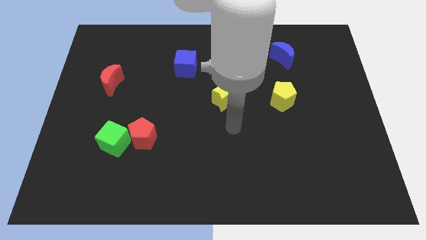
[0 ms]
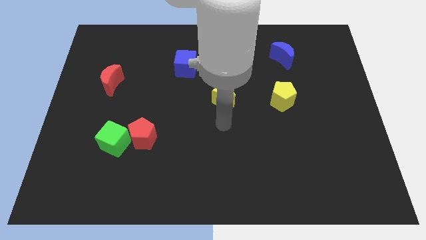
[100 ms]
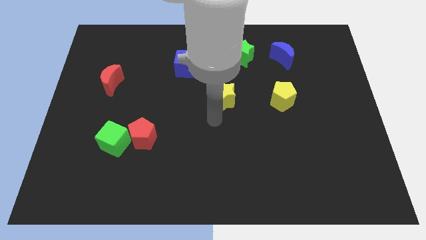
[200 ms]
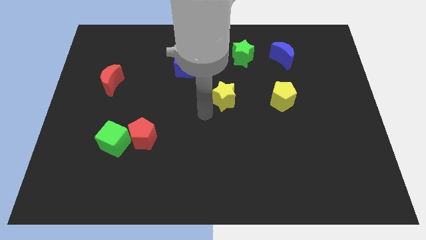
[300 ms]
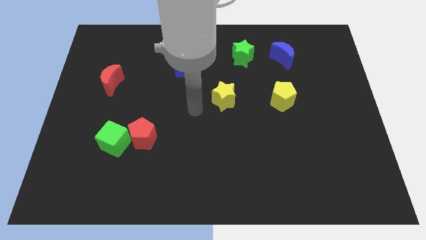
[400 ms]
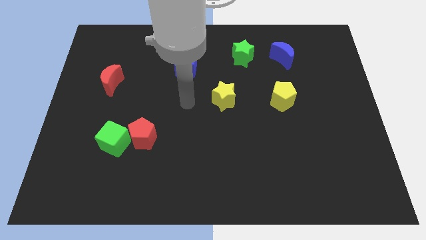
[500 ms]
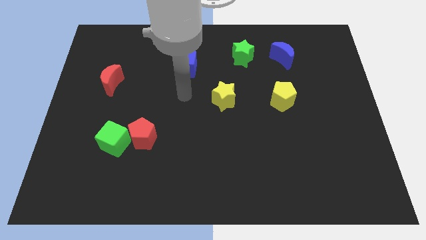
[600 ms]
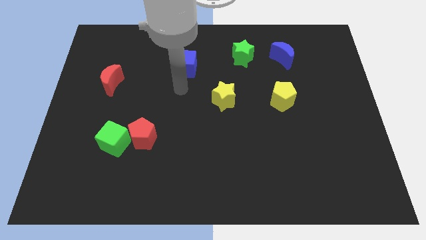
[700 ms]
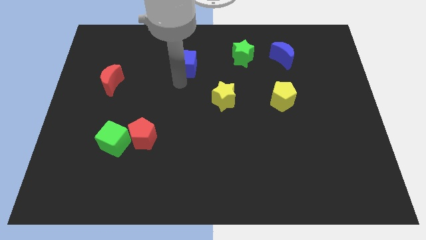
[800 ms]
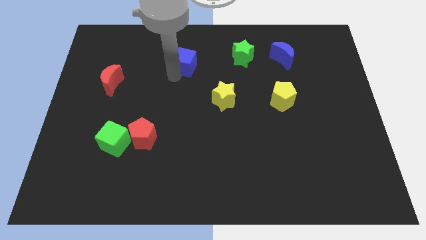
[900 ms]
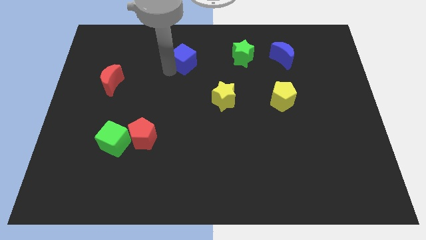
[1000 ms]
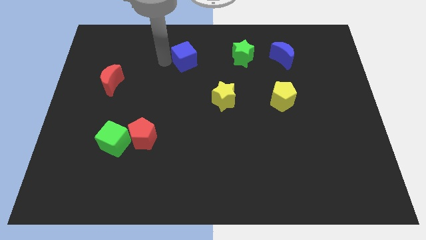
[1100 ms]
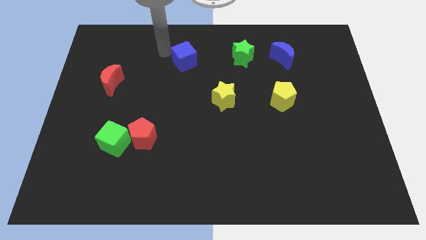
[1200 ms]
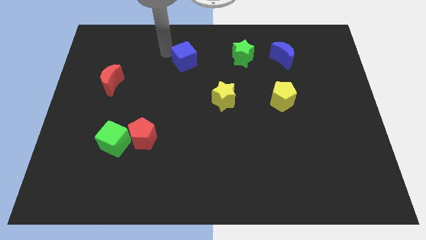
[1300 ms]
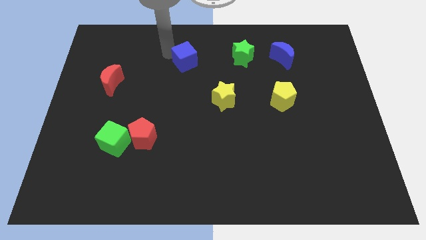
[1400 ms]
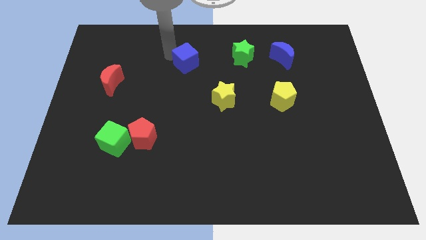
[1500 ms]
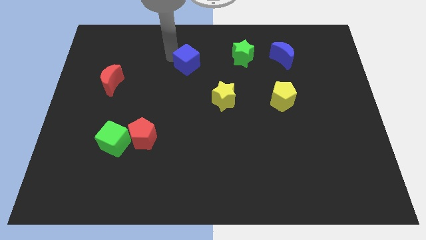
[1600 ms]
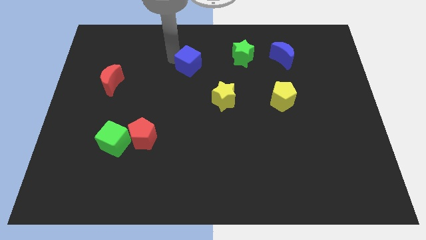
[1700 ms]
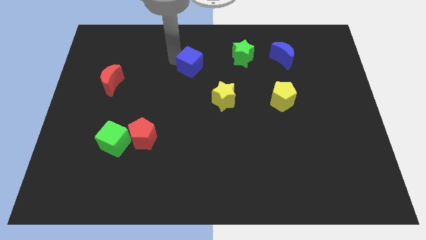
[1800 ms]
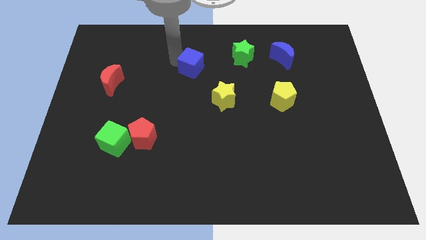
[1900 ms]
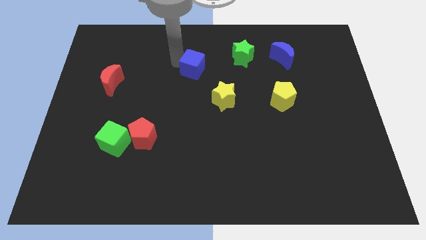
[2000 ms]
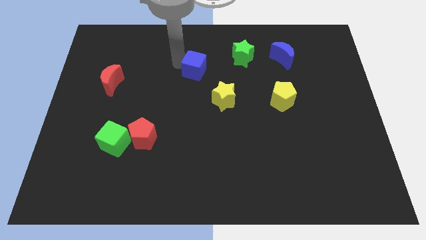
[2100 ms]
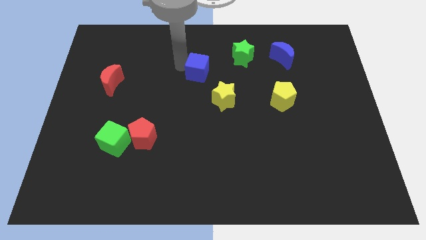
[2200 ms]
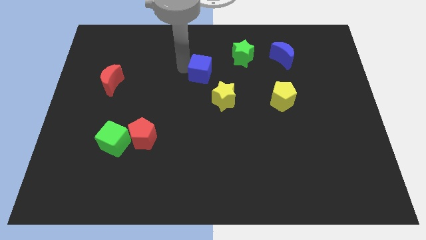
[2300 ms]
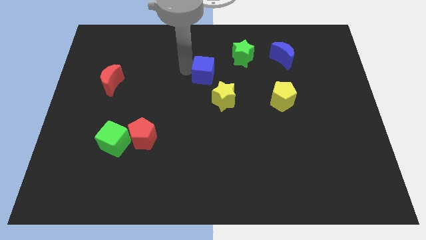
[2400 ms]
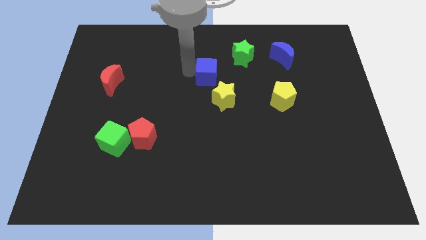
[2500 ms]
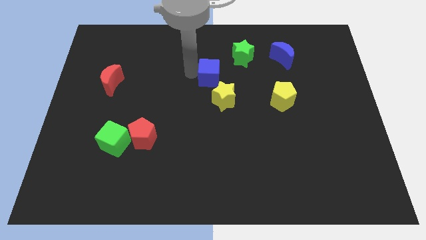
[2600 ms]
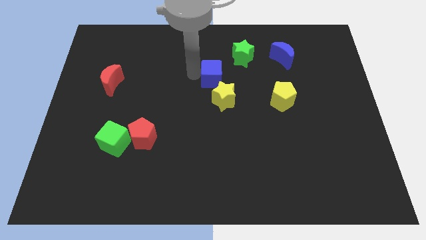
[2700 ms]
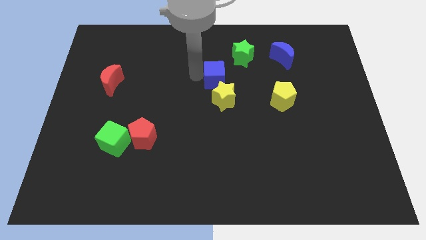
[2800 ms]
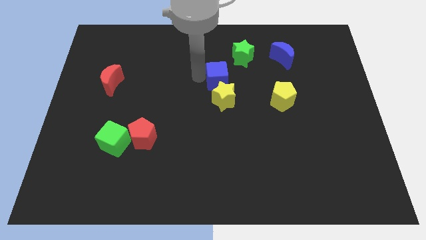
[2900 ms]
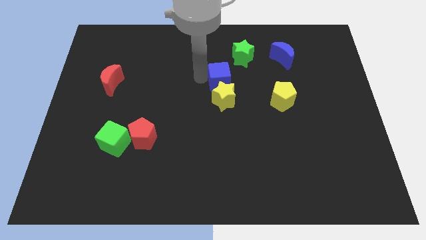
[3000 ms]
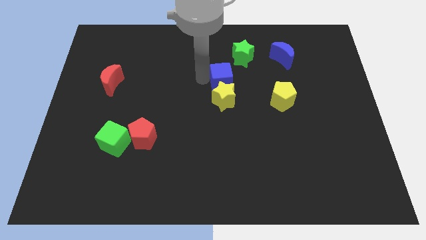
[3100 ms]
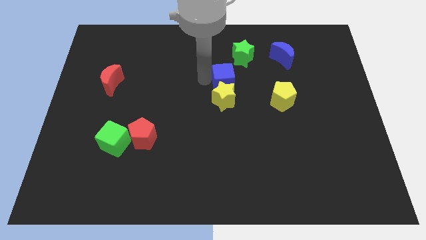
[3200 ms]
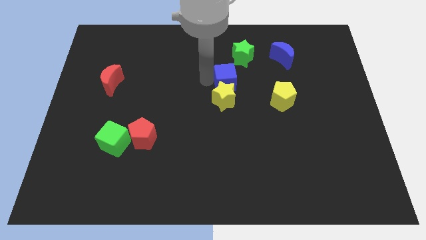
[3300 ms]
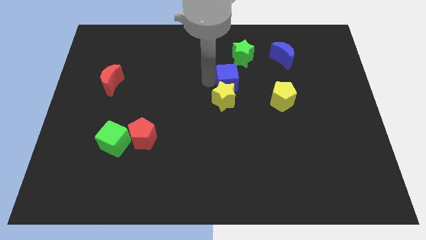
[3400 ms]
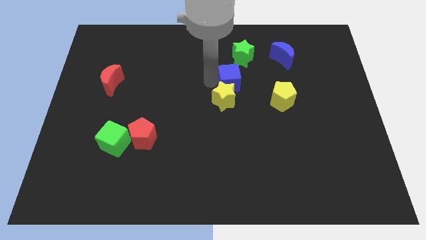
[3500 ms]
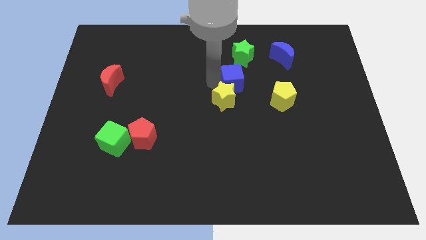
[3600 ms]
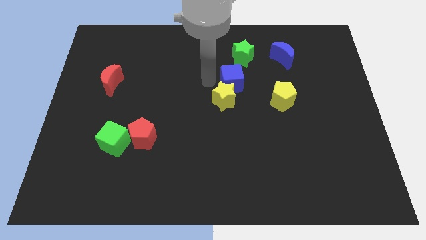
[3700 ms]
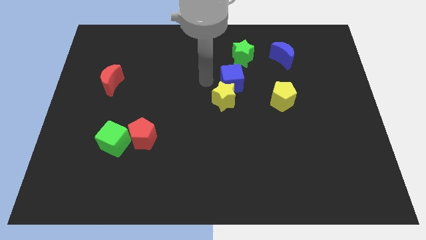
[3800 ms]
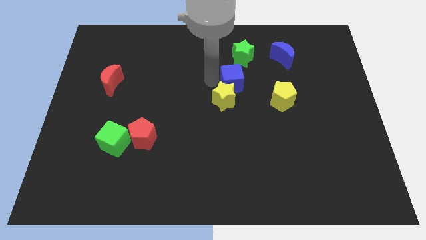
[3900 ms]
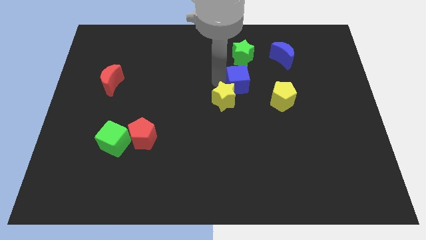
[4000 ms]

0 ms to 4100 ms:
put the blue cube to the top left side of the yellow pentagon

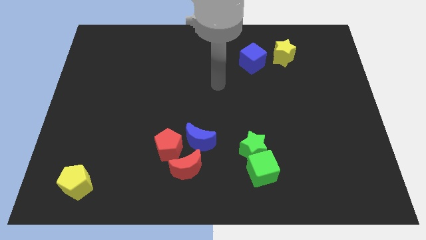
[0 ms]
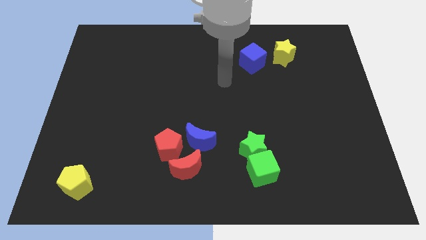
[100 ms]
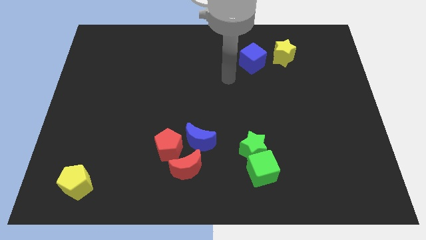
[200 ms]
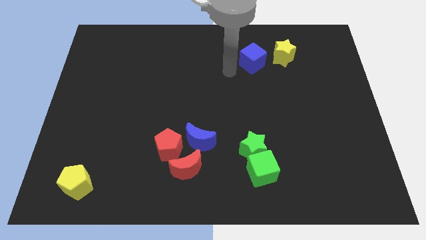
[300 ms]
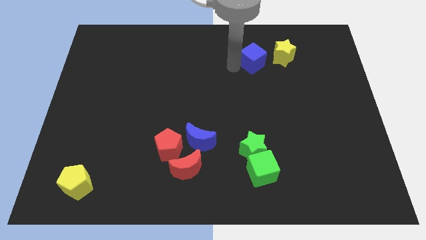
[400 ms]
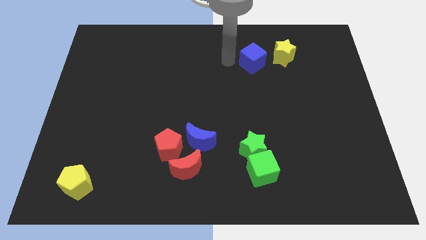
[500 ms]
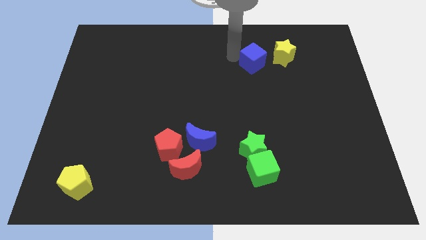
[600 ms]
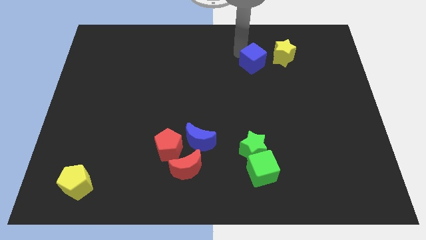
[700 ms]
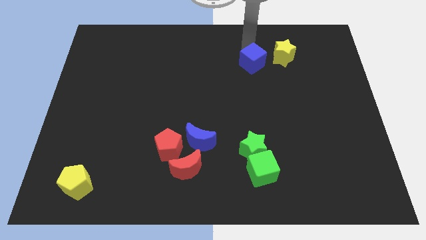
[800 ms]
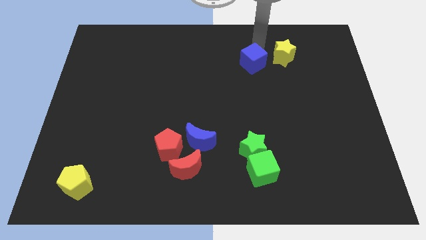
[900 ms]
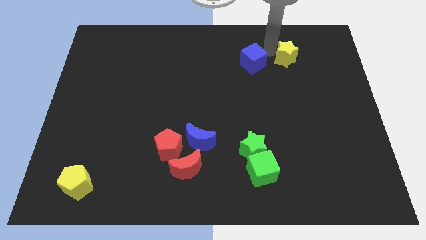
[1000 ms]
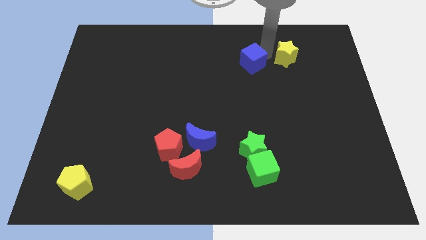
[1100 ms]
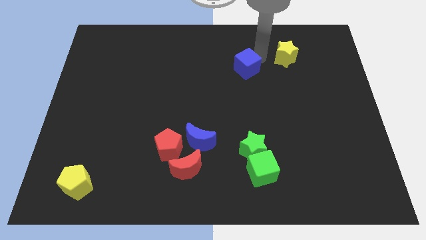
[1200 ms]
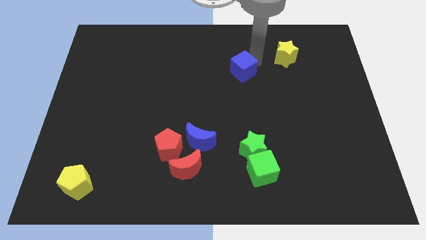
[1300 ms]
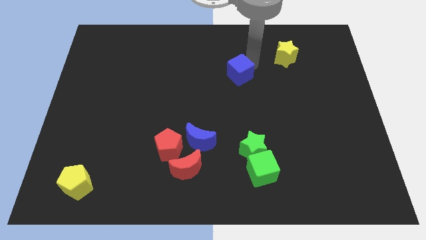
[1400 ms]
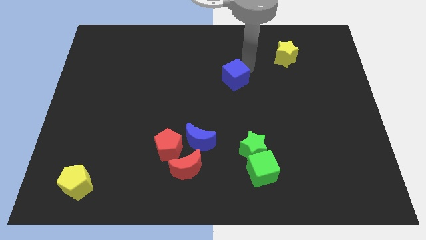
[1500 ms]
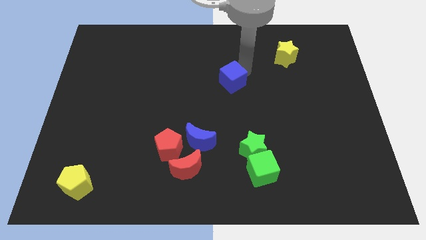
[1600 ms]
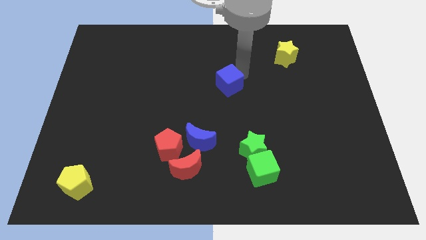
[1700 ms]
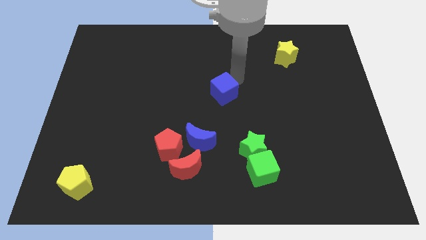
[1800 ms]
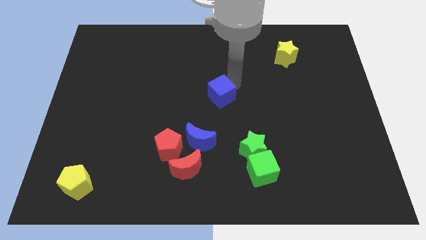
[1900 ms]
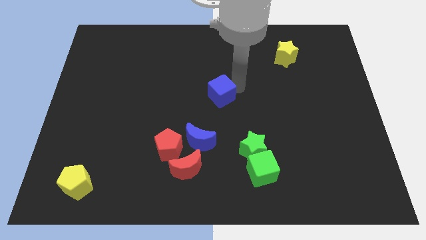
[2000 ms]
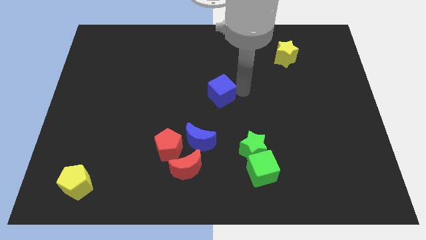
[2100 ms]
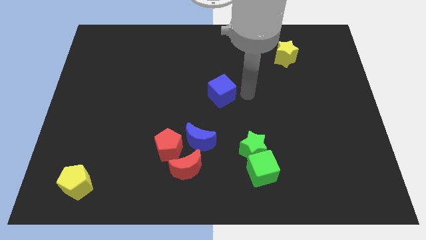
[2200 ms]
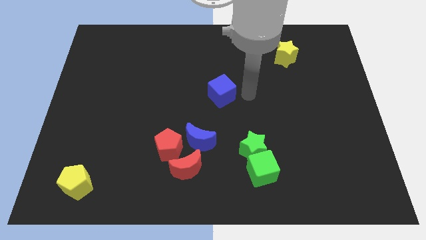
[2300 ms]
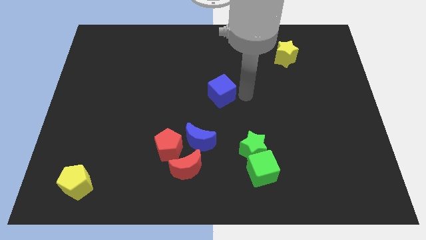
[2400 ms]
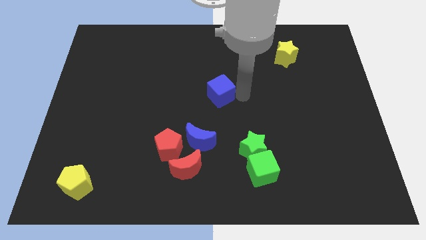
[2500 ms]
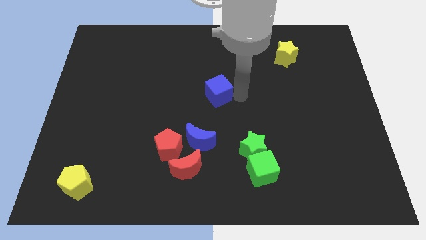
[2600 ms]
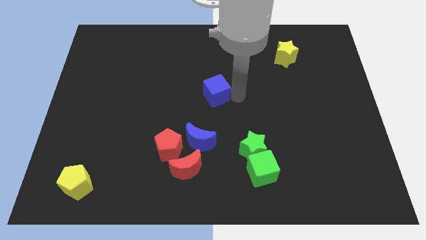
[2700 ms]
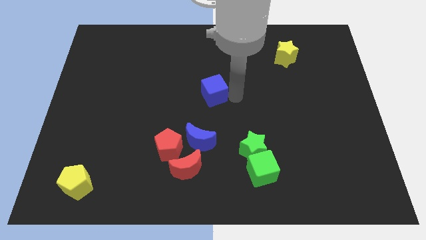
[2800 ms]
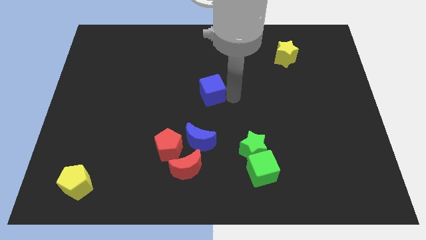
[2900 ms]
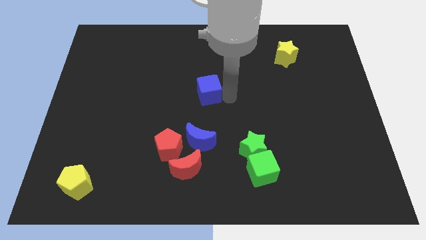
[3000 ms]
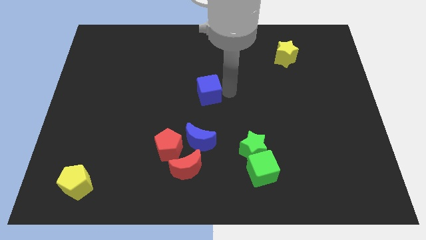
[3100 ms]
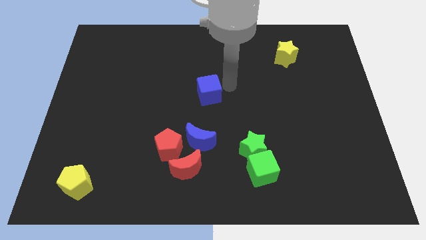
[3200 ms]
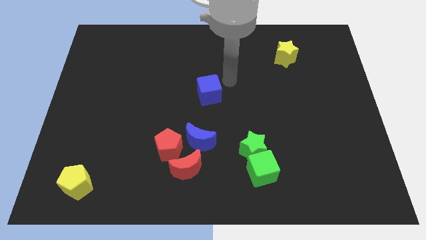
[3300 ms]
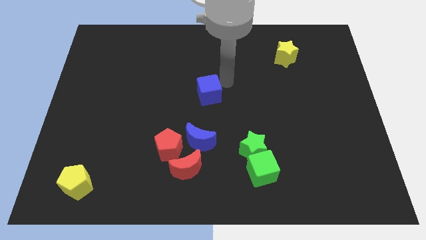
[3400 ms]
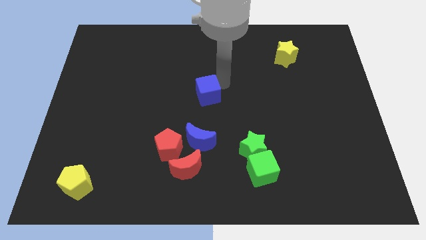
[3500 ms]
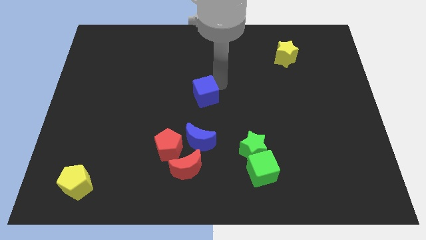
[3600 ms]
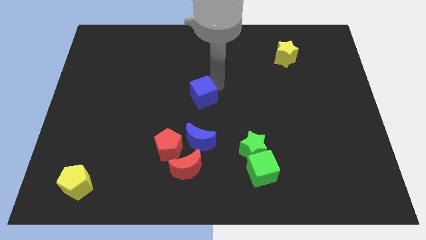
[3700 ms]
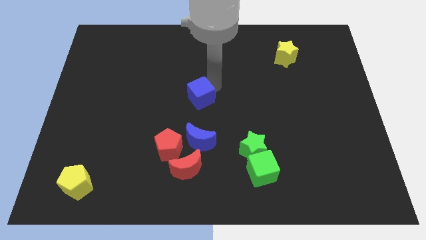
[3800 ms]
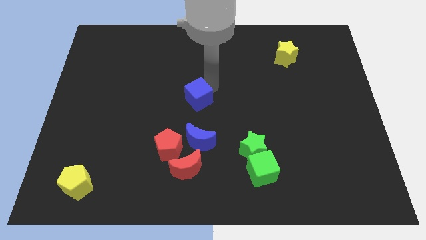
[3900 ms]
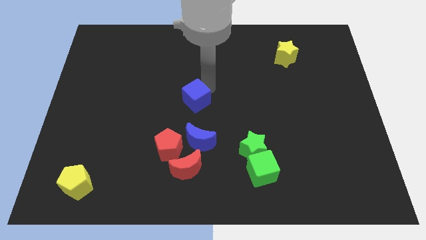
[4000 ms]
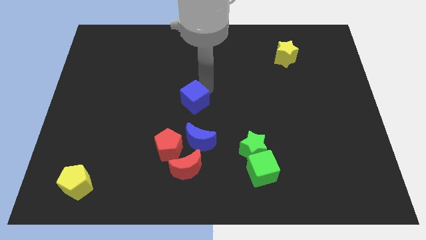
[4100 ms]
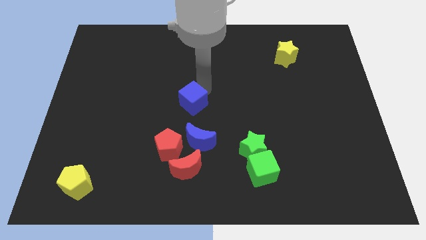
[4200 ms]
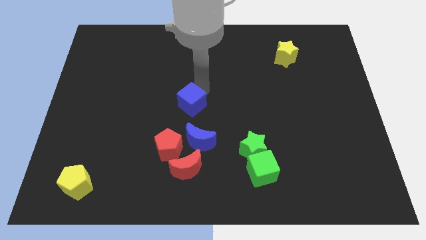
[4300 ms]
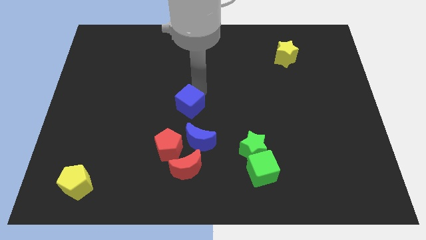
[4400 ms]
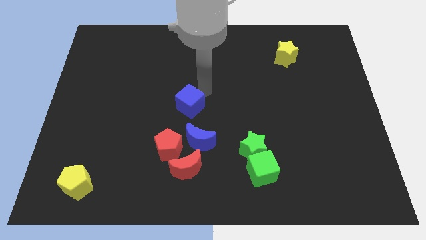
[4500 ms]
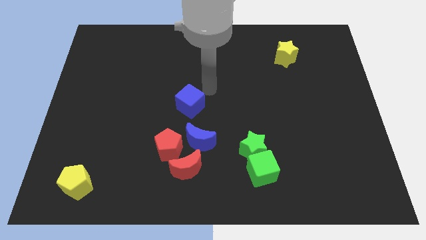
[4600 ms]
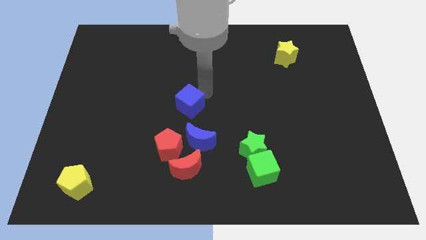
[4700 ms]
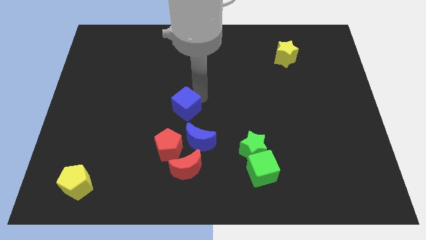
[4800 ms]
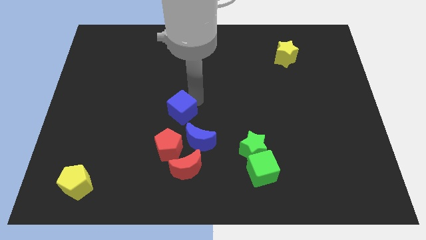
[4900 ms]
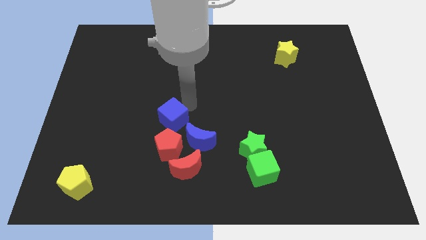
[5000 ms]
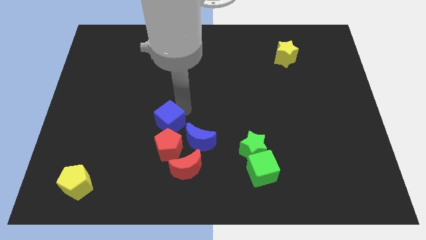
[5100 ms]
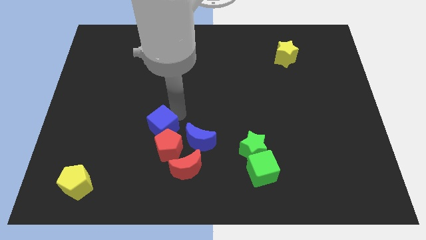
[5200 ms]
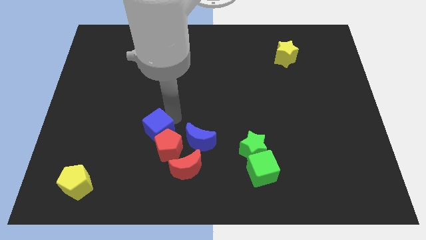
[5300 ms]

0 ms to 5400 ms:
move the blue cube to the top left of the red moon
